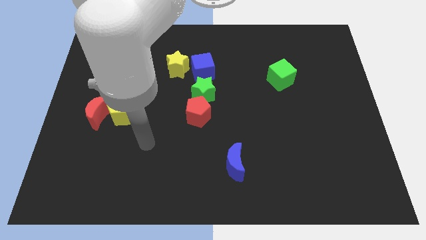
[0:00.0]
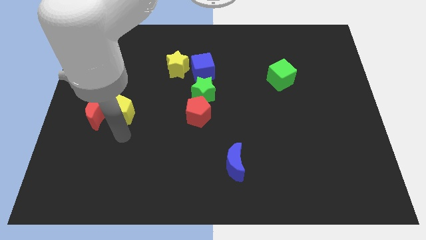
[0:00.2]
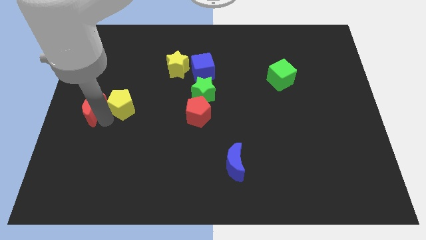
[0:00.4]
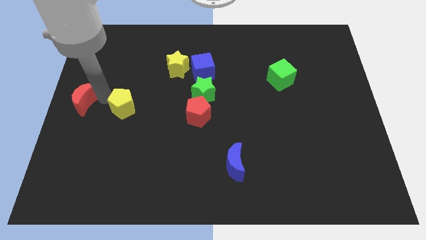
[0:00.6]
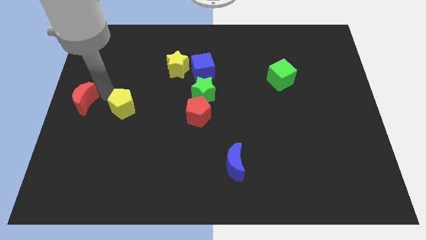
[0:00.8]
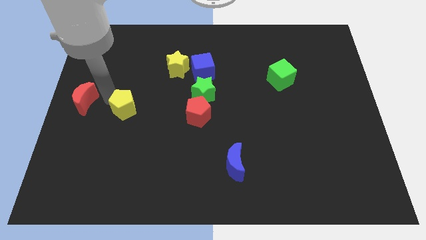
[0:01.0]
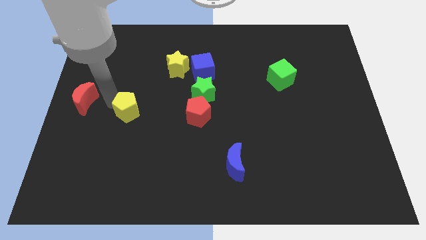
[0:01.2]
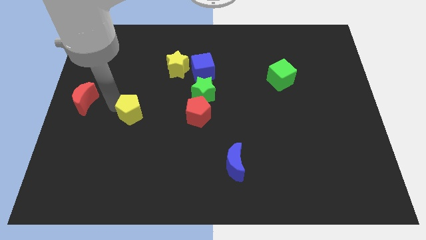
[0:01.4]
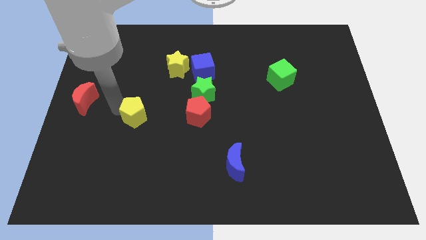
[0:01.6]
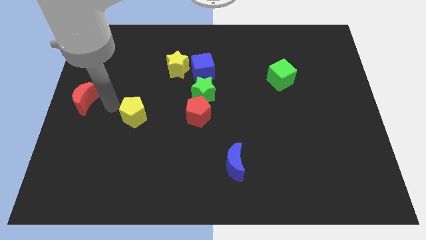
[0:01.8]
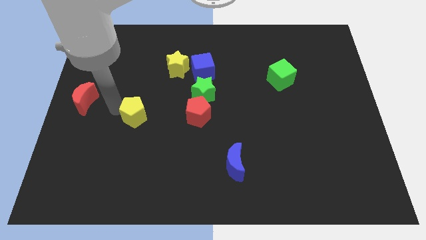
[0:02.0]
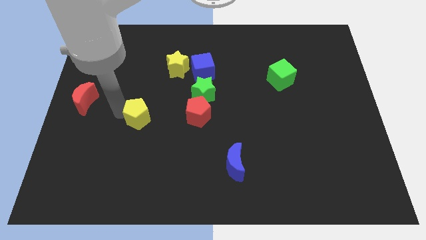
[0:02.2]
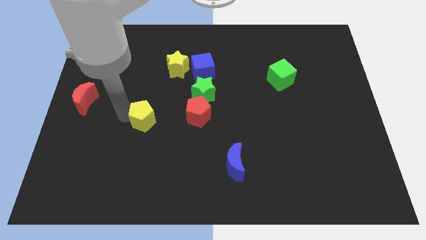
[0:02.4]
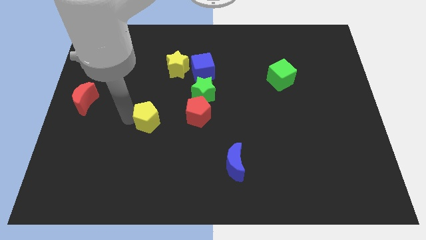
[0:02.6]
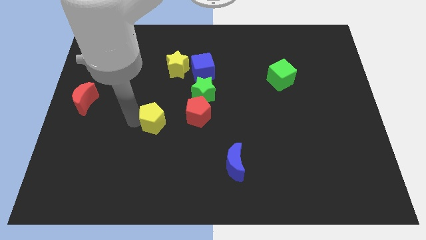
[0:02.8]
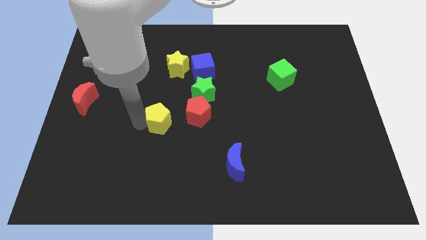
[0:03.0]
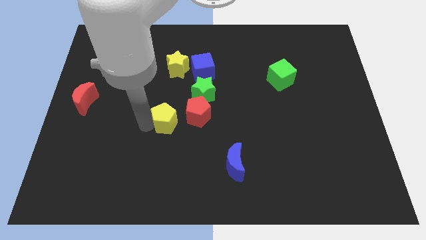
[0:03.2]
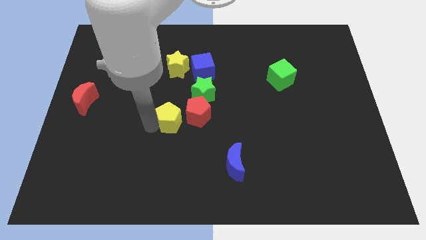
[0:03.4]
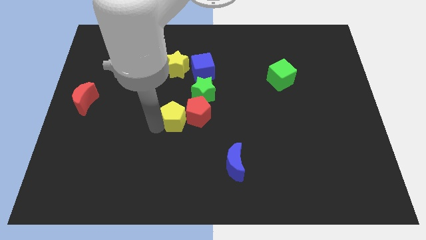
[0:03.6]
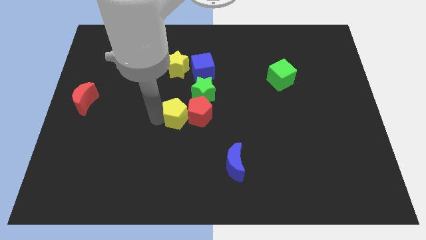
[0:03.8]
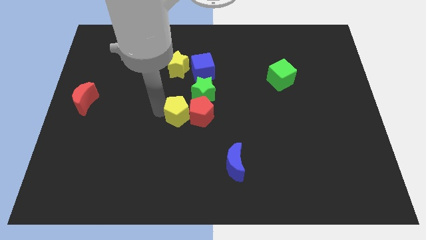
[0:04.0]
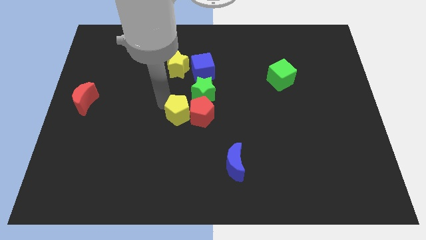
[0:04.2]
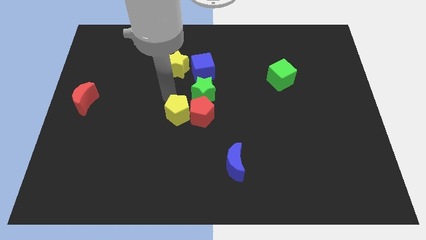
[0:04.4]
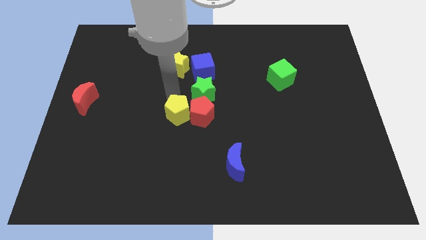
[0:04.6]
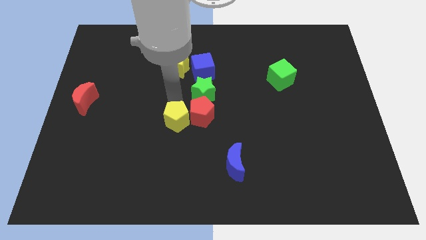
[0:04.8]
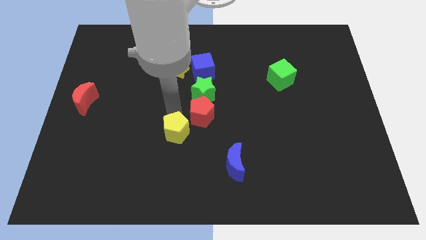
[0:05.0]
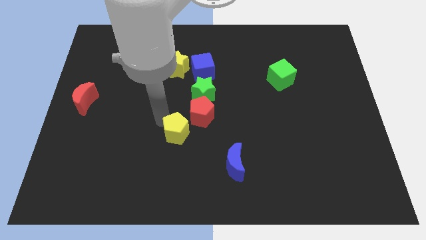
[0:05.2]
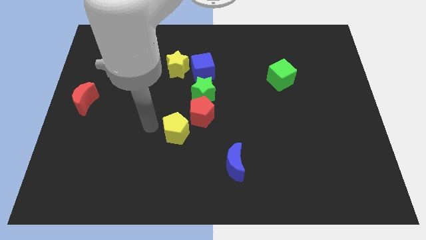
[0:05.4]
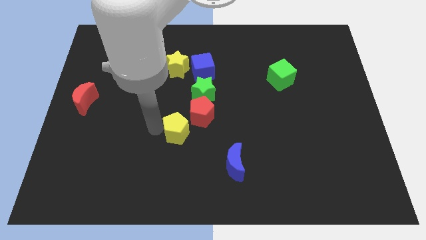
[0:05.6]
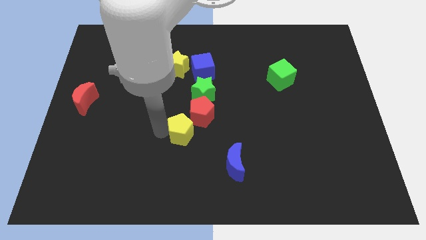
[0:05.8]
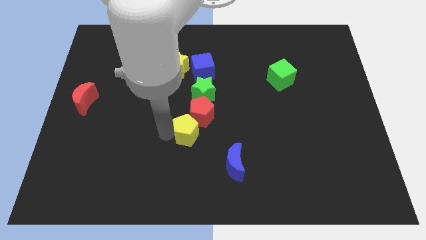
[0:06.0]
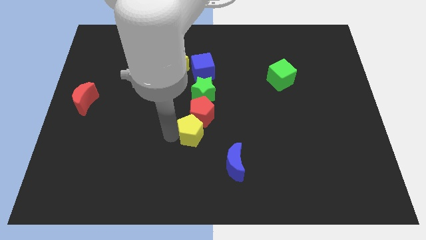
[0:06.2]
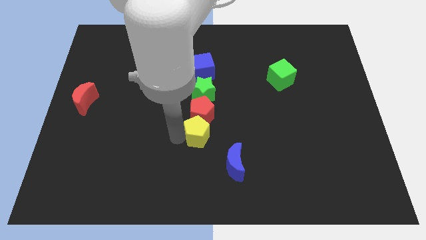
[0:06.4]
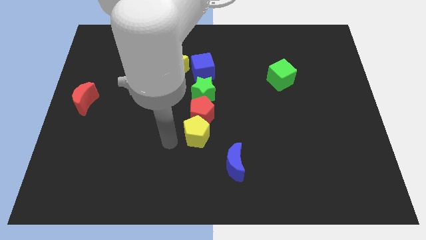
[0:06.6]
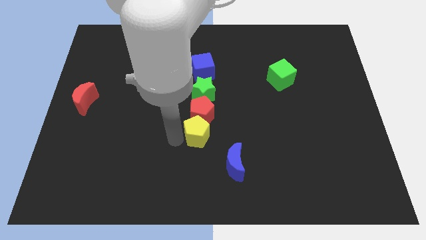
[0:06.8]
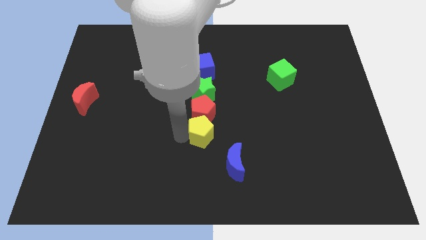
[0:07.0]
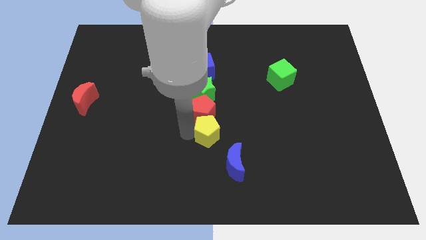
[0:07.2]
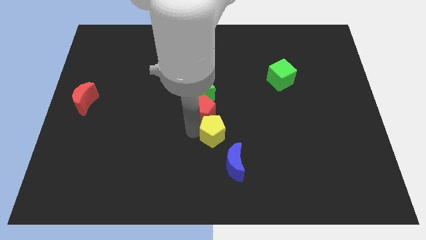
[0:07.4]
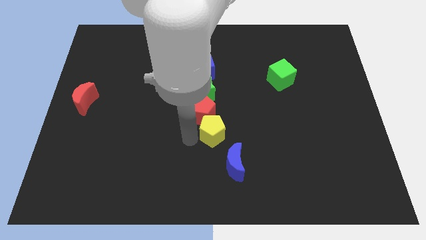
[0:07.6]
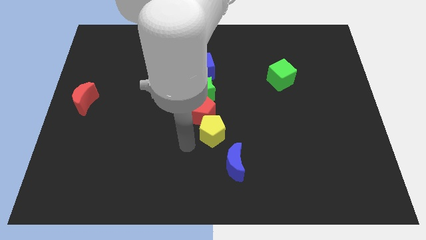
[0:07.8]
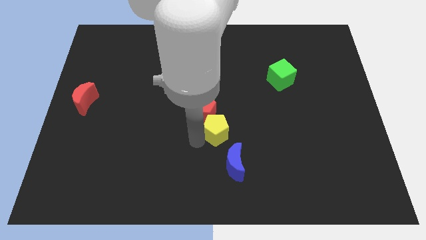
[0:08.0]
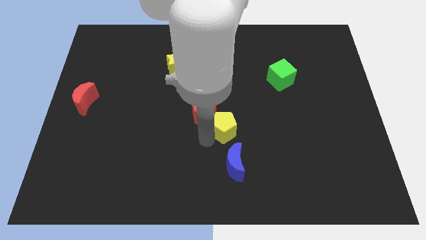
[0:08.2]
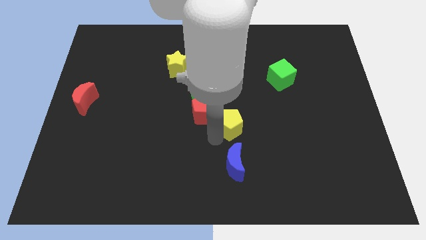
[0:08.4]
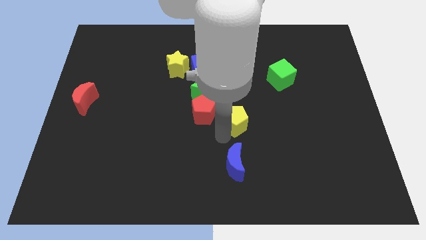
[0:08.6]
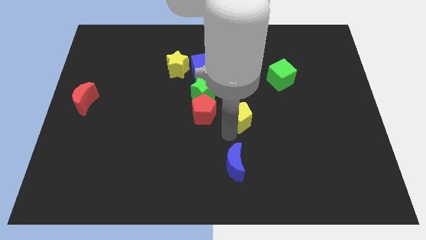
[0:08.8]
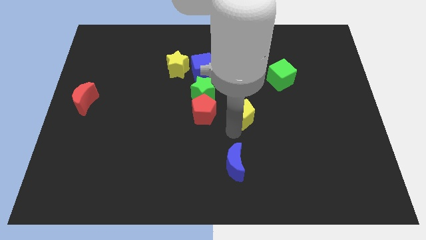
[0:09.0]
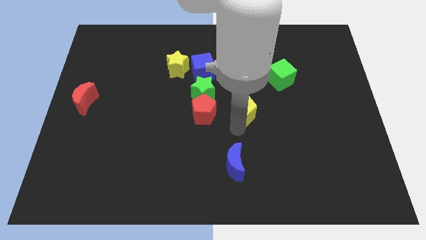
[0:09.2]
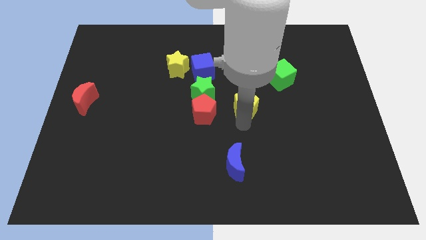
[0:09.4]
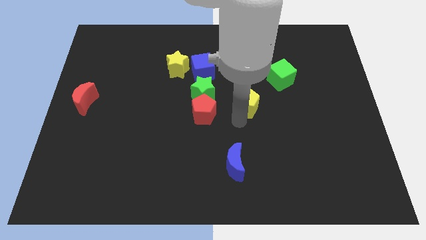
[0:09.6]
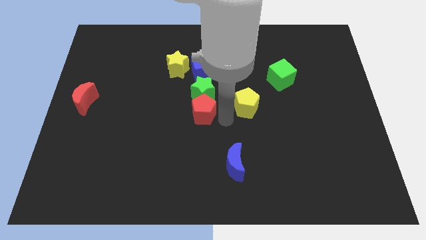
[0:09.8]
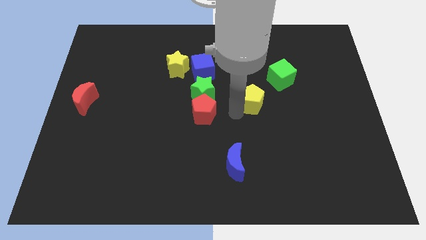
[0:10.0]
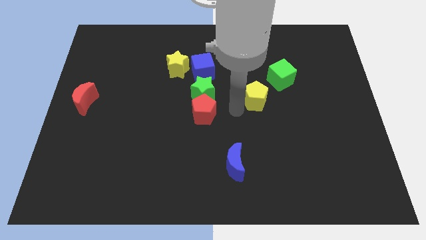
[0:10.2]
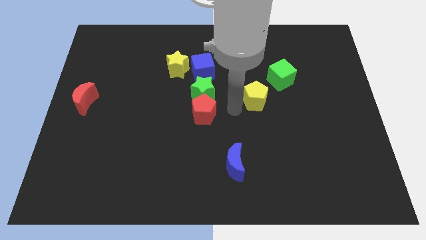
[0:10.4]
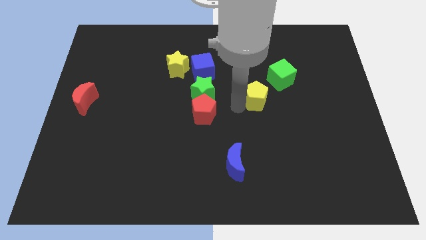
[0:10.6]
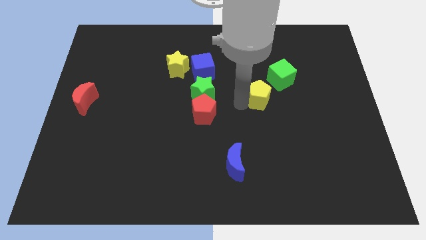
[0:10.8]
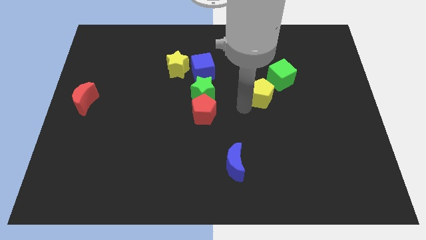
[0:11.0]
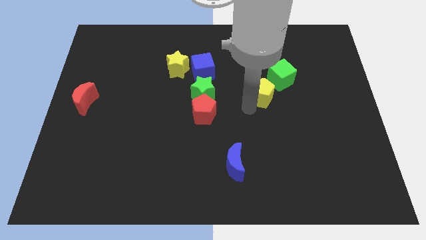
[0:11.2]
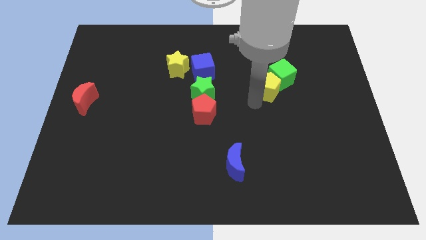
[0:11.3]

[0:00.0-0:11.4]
slide the yellow pentagon to the green cube
